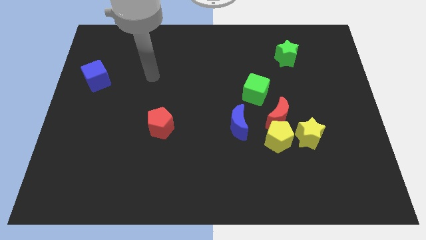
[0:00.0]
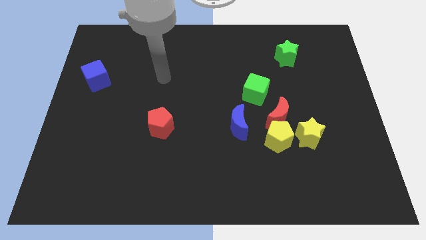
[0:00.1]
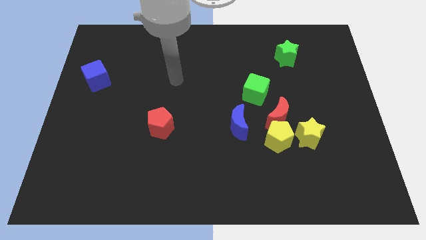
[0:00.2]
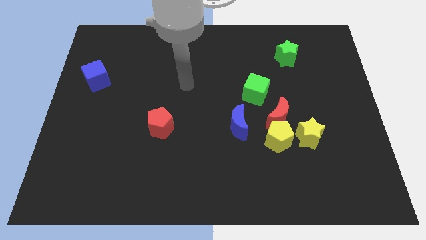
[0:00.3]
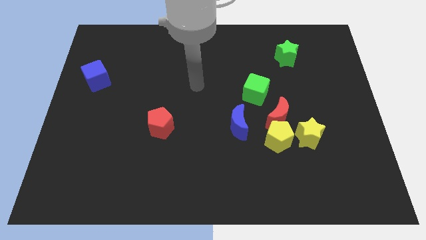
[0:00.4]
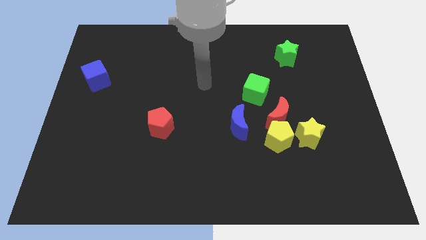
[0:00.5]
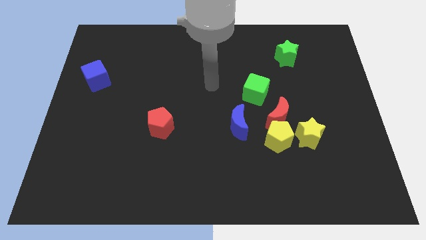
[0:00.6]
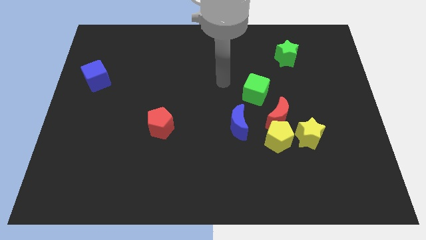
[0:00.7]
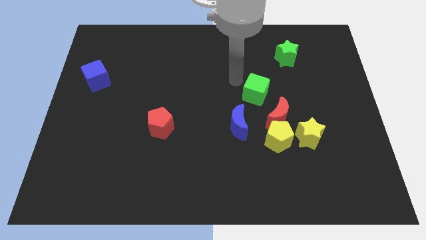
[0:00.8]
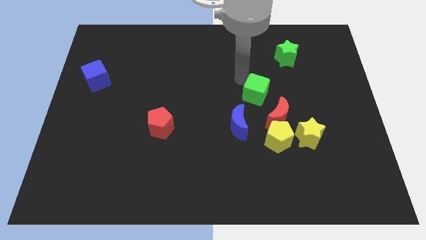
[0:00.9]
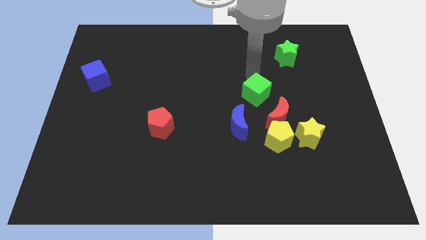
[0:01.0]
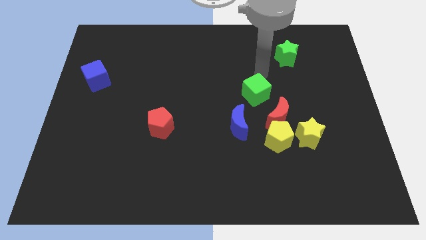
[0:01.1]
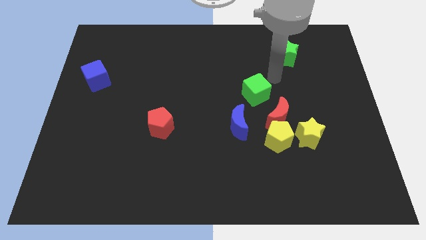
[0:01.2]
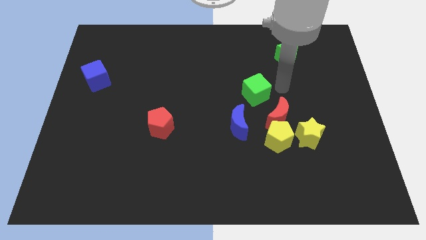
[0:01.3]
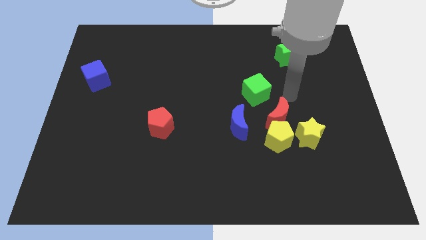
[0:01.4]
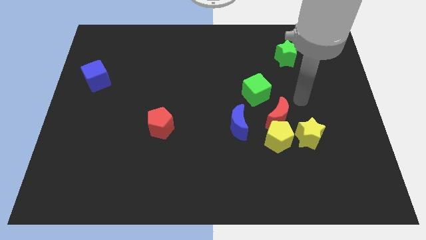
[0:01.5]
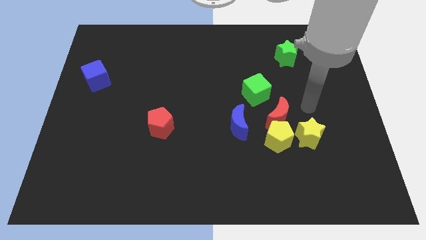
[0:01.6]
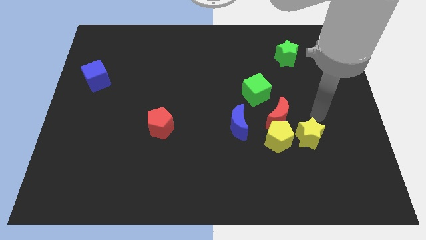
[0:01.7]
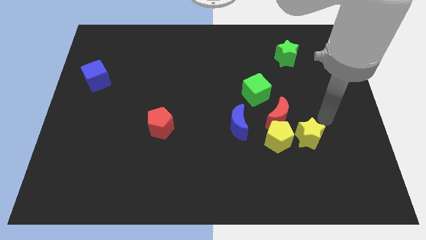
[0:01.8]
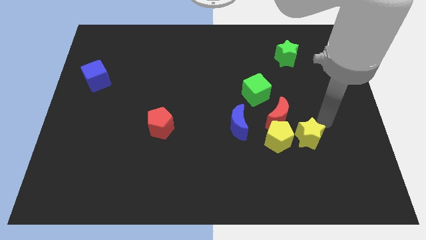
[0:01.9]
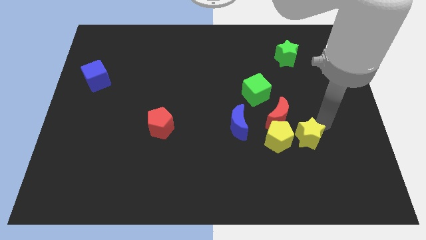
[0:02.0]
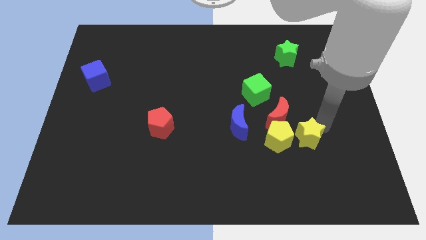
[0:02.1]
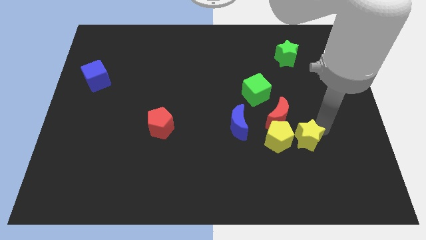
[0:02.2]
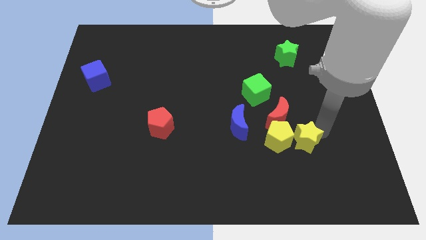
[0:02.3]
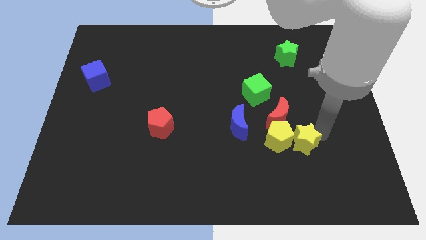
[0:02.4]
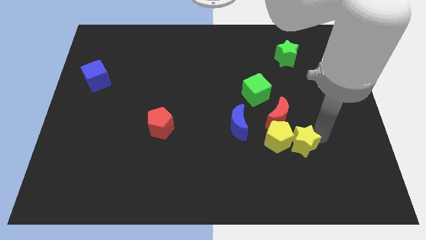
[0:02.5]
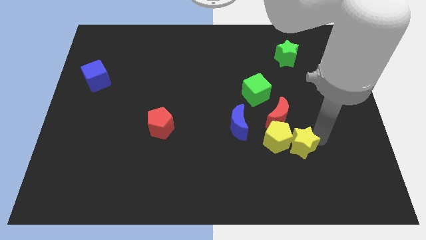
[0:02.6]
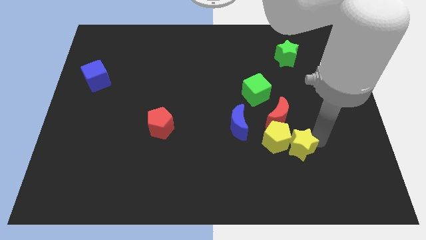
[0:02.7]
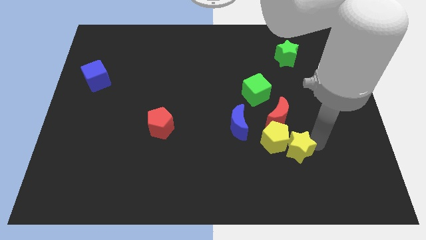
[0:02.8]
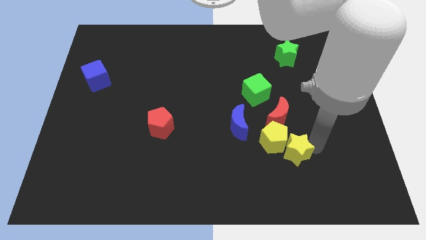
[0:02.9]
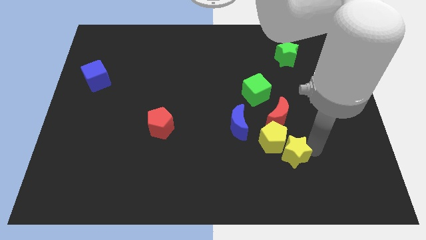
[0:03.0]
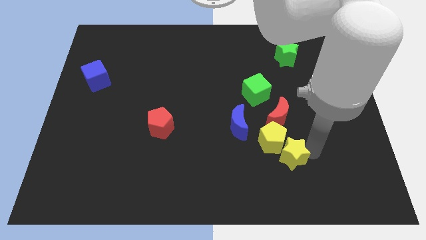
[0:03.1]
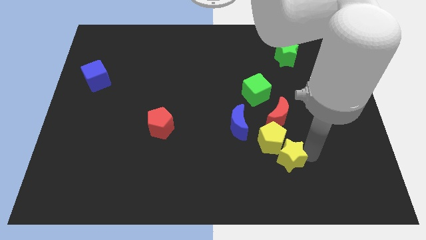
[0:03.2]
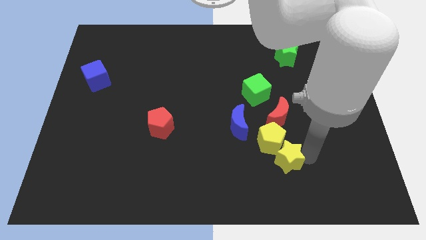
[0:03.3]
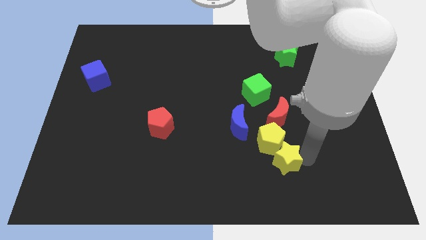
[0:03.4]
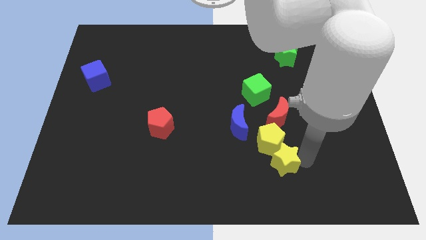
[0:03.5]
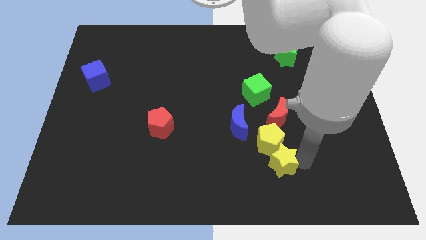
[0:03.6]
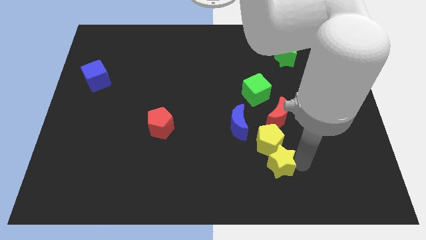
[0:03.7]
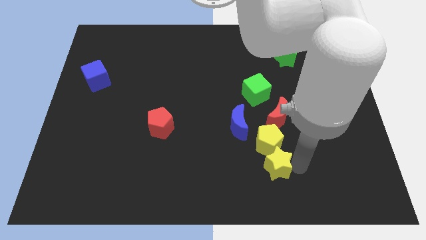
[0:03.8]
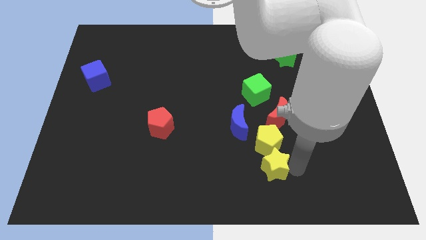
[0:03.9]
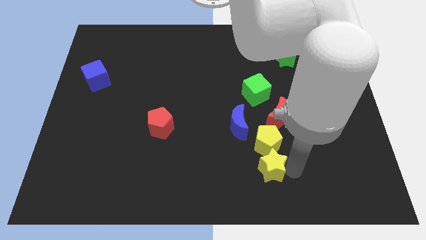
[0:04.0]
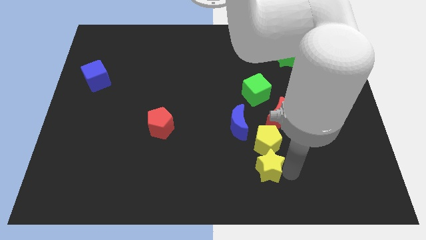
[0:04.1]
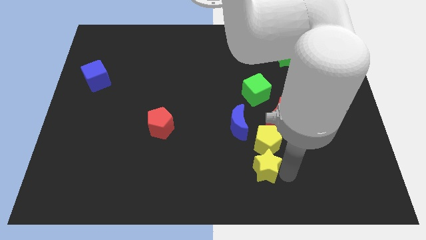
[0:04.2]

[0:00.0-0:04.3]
move the yellow star a bit to the left

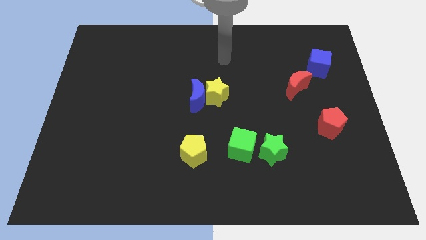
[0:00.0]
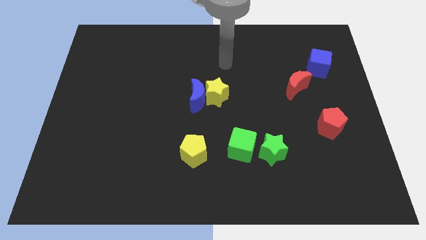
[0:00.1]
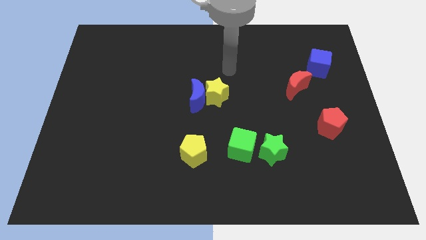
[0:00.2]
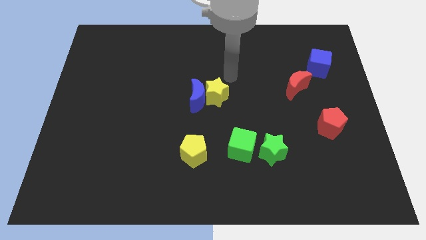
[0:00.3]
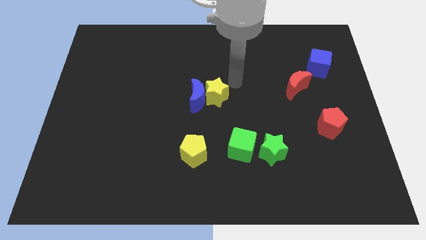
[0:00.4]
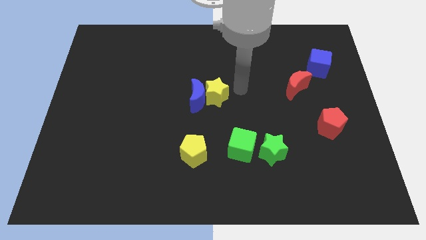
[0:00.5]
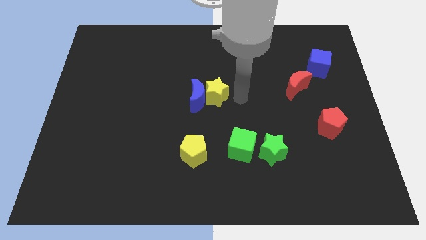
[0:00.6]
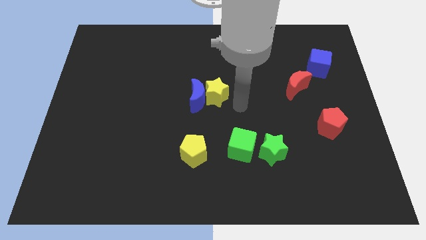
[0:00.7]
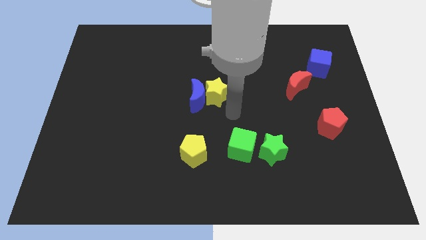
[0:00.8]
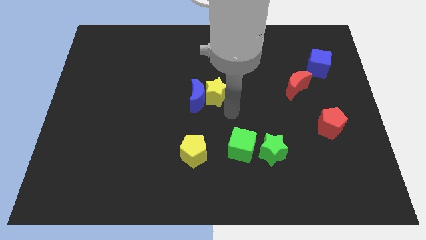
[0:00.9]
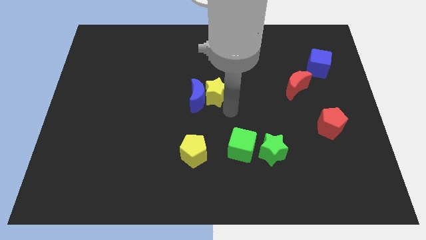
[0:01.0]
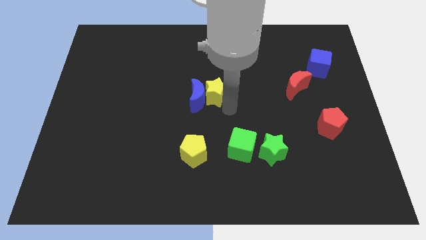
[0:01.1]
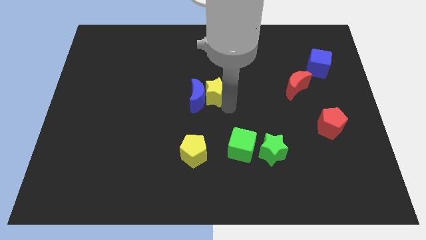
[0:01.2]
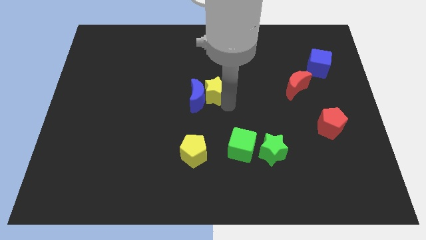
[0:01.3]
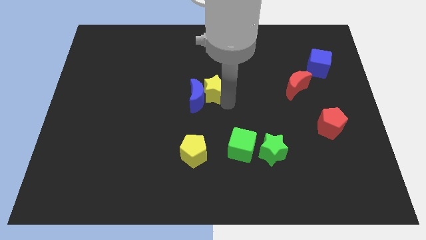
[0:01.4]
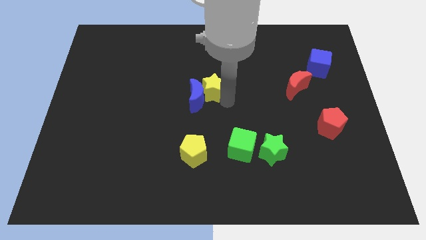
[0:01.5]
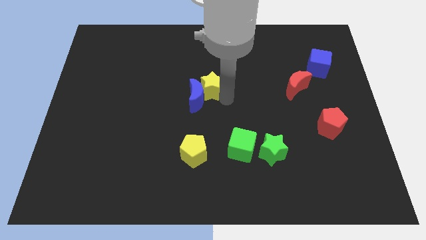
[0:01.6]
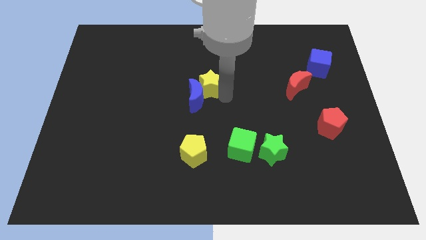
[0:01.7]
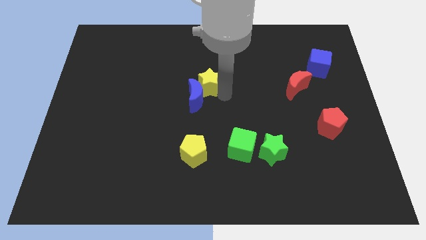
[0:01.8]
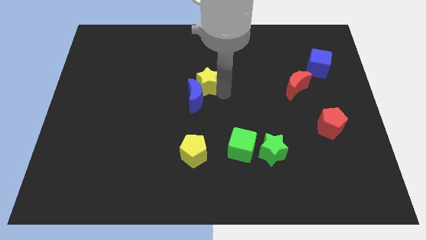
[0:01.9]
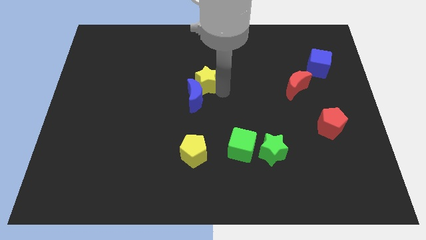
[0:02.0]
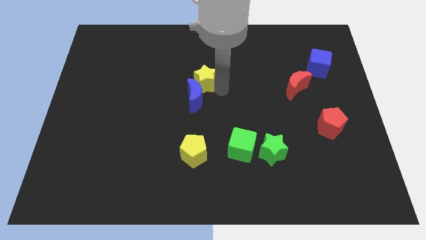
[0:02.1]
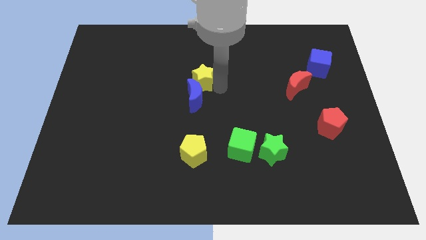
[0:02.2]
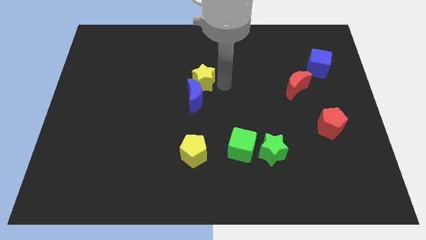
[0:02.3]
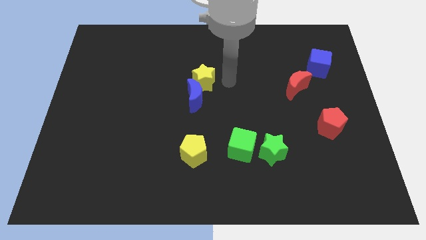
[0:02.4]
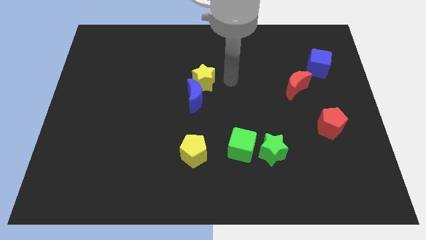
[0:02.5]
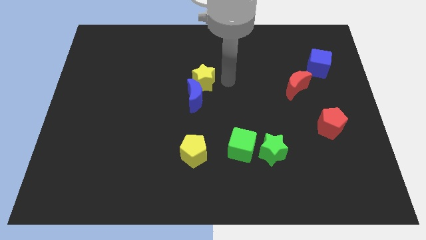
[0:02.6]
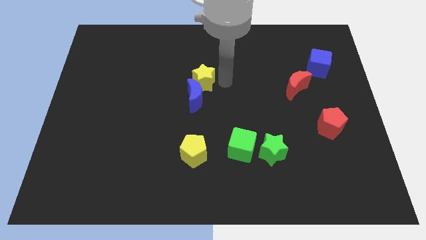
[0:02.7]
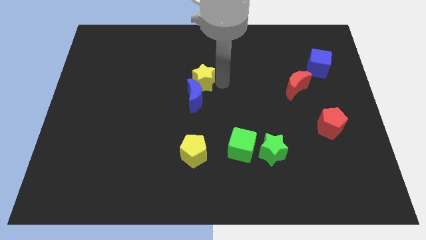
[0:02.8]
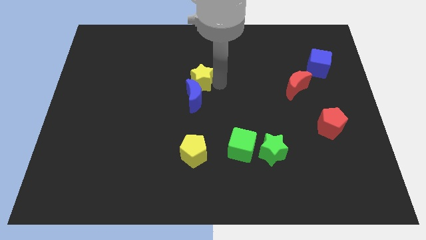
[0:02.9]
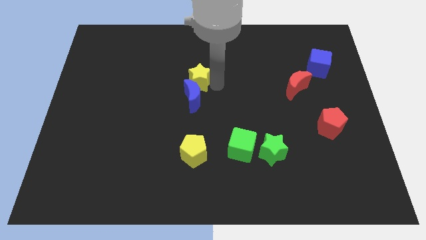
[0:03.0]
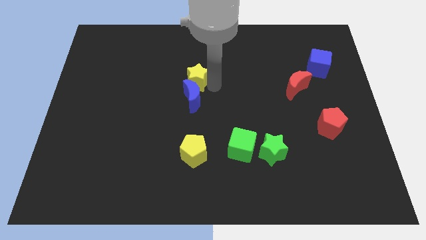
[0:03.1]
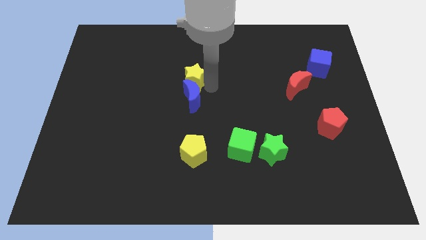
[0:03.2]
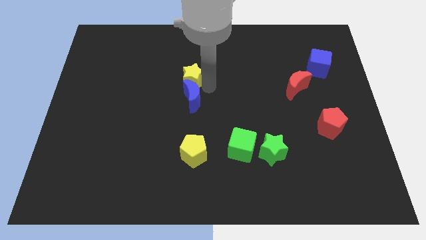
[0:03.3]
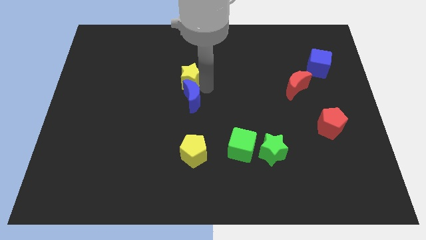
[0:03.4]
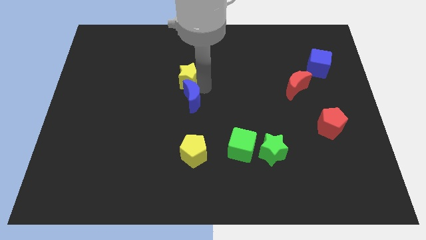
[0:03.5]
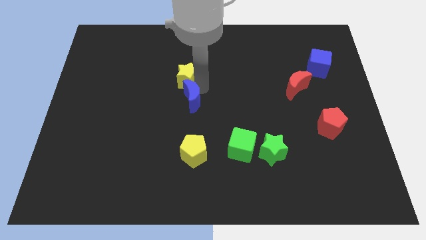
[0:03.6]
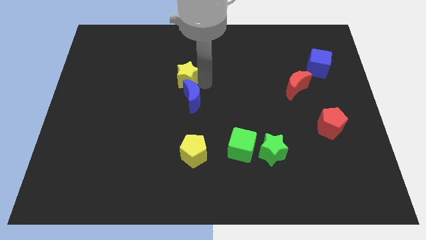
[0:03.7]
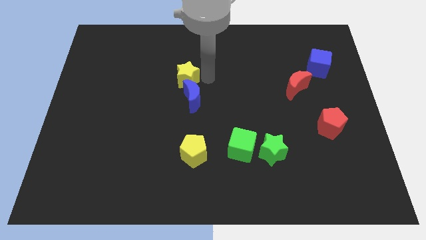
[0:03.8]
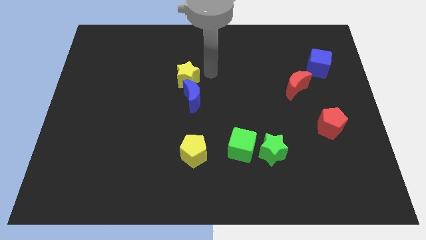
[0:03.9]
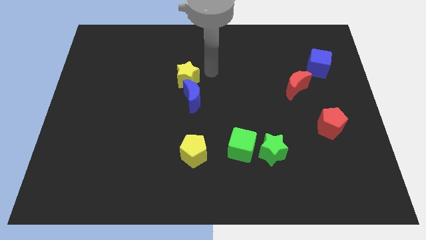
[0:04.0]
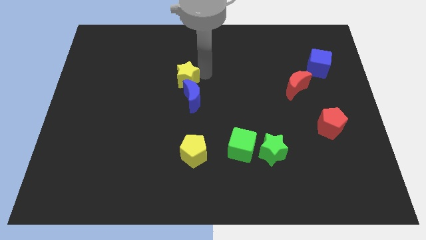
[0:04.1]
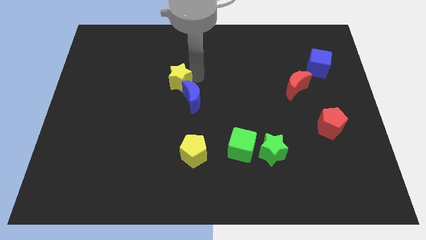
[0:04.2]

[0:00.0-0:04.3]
push the yellow star a bit to the left
